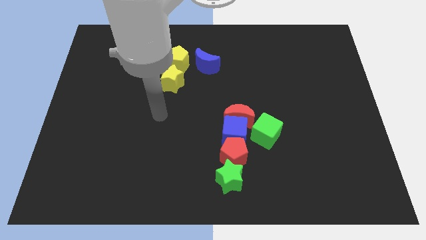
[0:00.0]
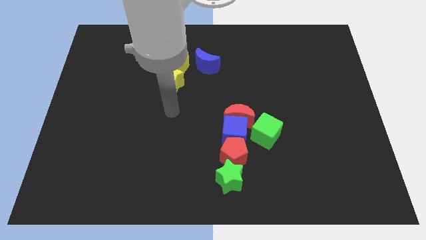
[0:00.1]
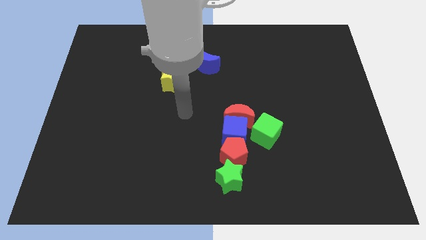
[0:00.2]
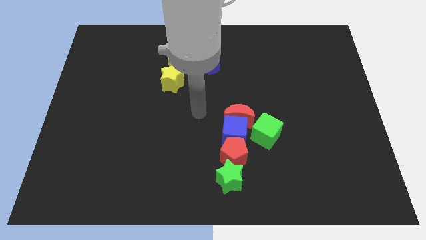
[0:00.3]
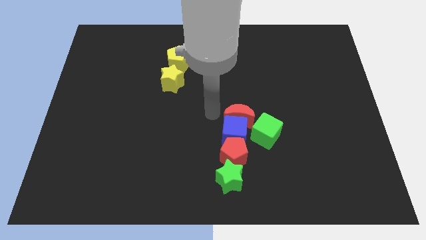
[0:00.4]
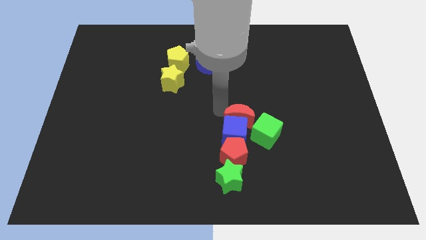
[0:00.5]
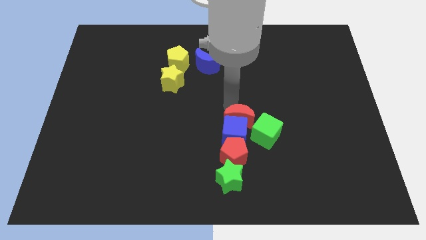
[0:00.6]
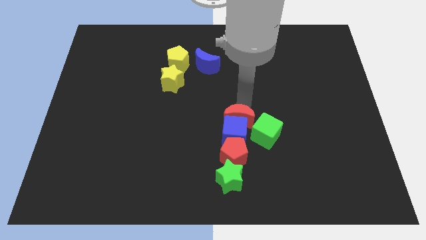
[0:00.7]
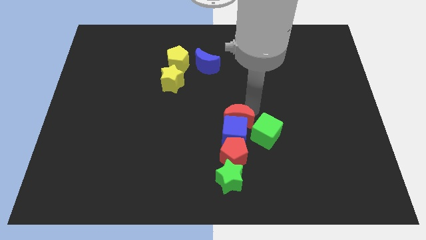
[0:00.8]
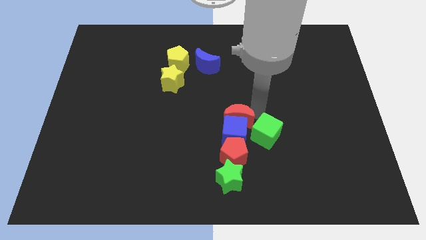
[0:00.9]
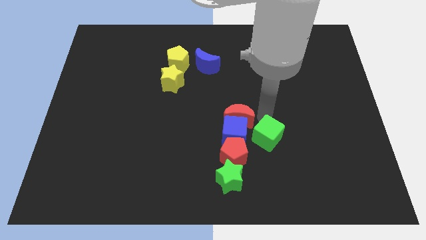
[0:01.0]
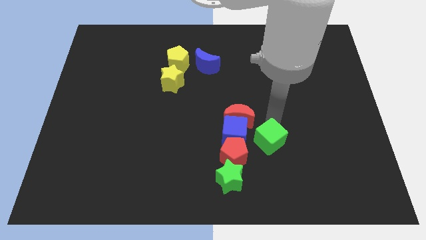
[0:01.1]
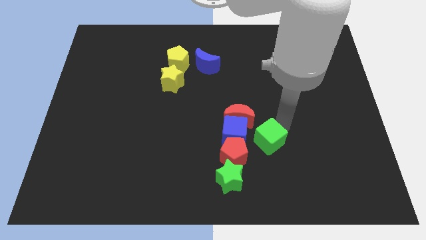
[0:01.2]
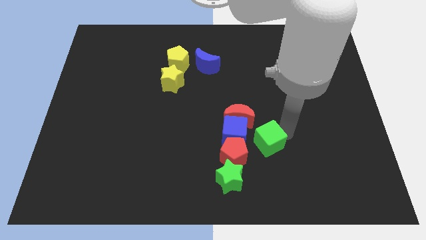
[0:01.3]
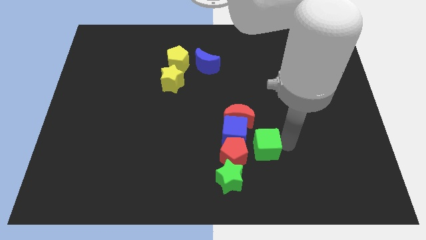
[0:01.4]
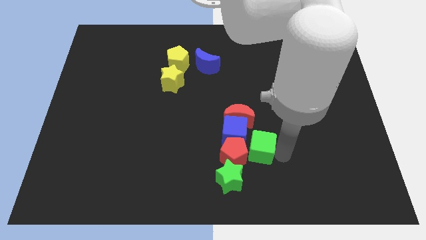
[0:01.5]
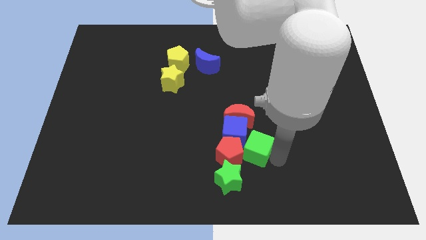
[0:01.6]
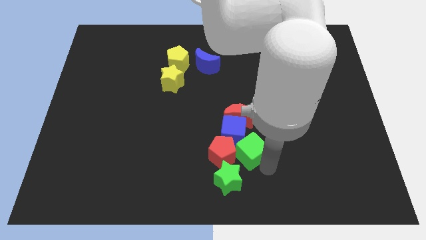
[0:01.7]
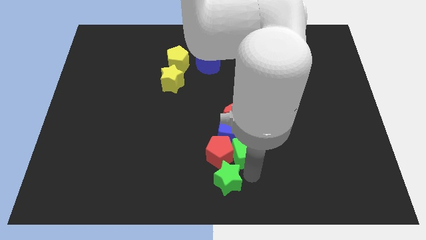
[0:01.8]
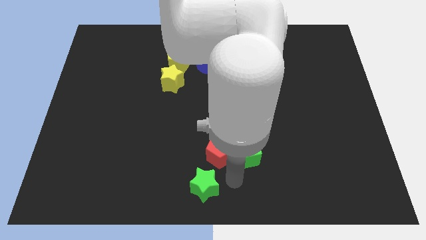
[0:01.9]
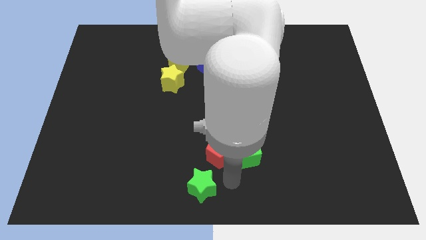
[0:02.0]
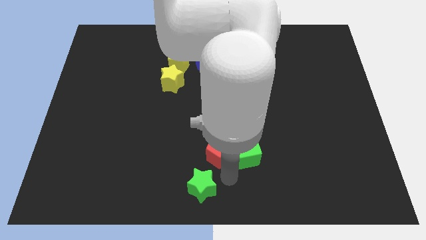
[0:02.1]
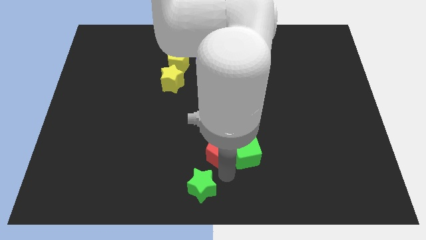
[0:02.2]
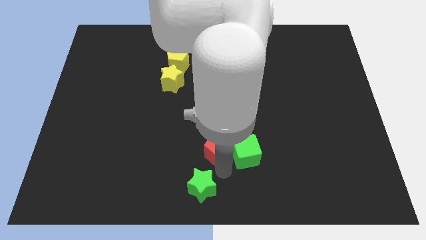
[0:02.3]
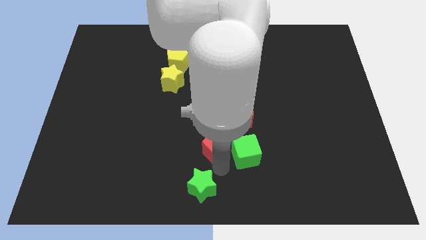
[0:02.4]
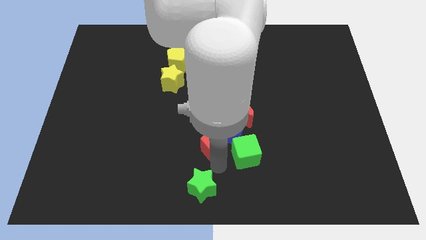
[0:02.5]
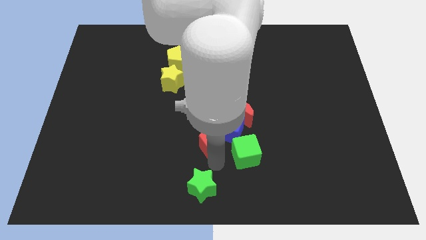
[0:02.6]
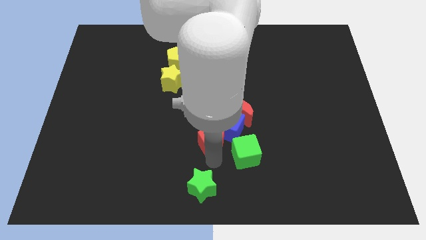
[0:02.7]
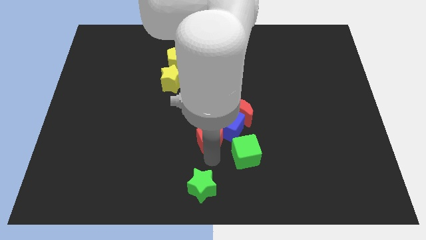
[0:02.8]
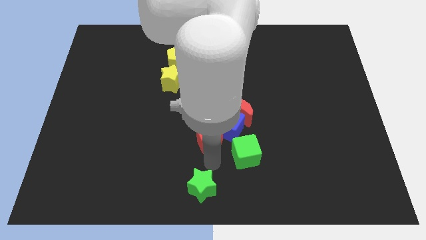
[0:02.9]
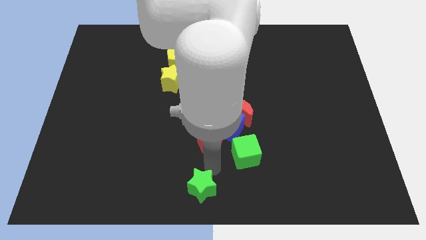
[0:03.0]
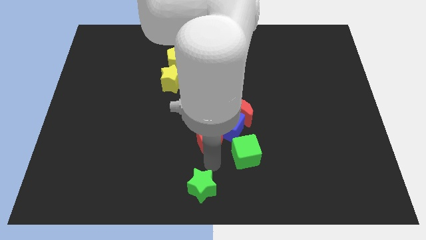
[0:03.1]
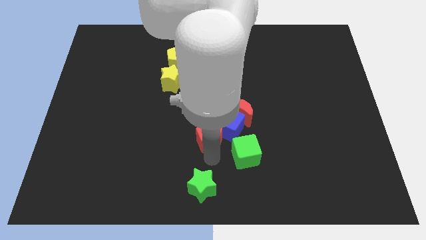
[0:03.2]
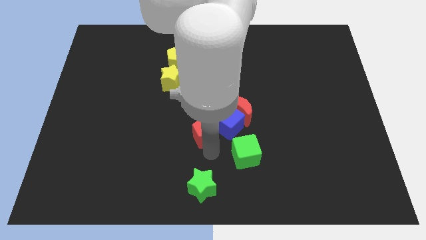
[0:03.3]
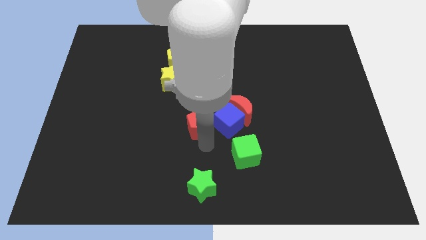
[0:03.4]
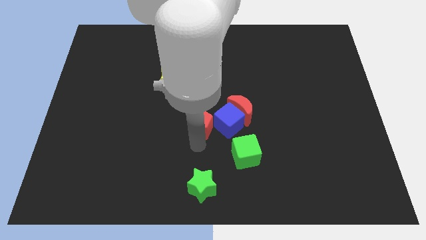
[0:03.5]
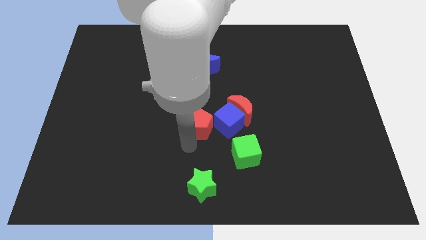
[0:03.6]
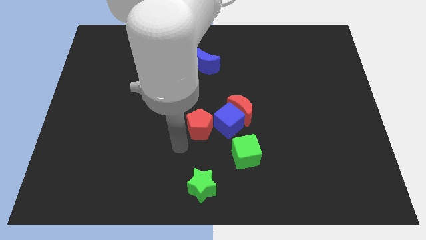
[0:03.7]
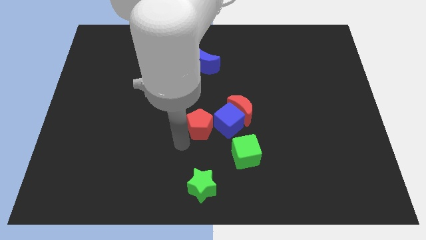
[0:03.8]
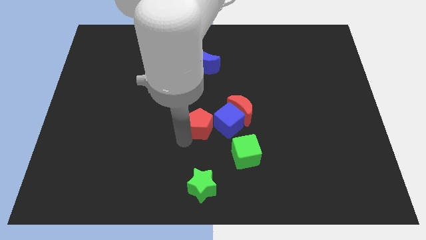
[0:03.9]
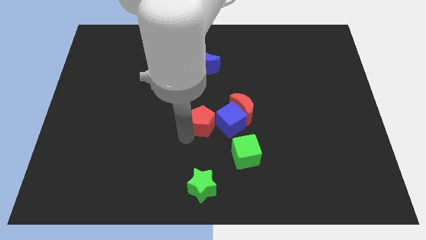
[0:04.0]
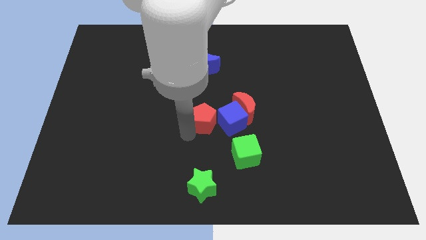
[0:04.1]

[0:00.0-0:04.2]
slide the red pentagon a little bit up

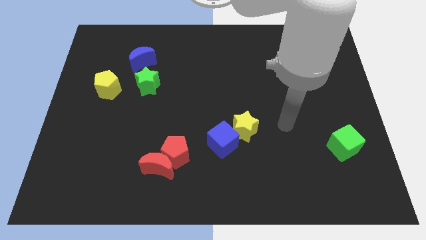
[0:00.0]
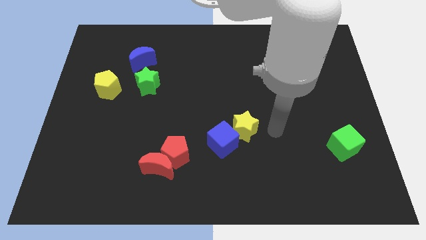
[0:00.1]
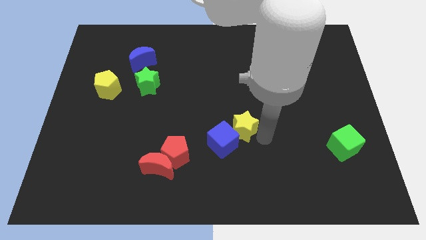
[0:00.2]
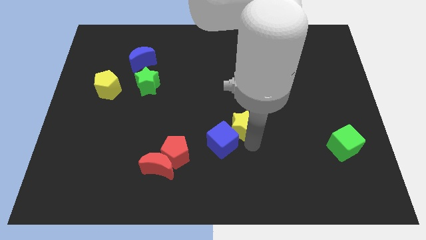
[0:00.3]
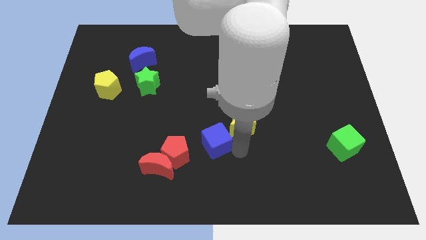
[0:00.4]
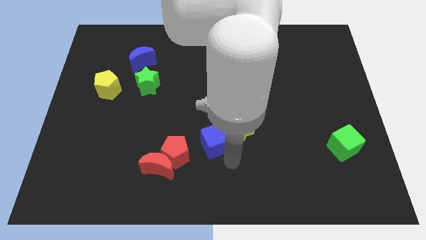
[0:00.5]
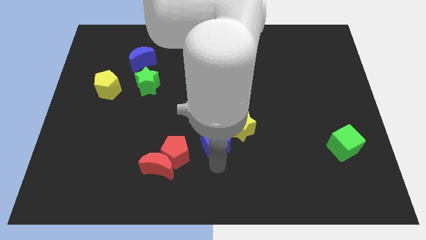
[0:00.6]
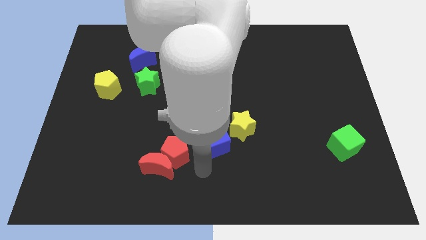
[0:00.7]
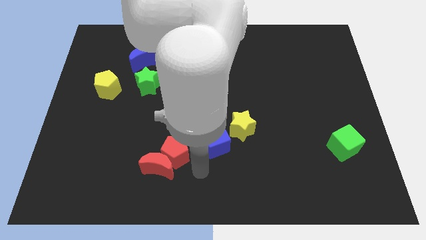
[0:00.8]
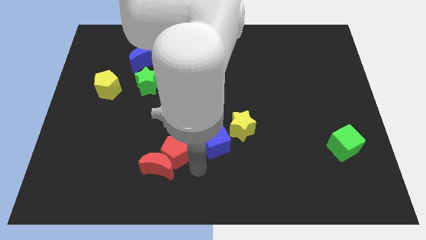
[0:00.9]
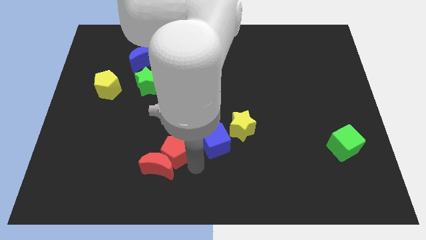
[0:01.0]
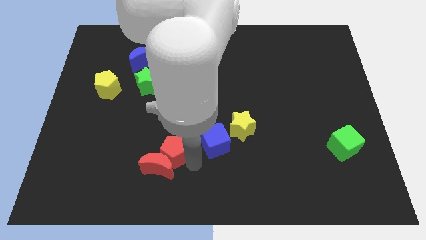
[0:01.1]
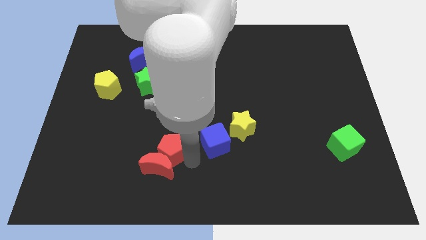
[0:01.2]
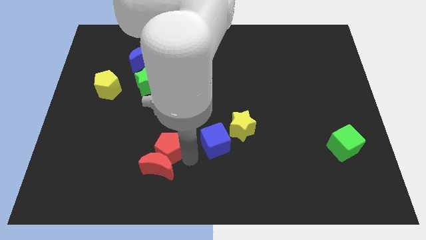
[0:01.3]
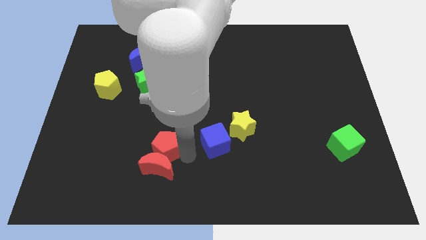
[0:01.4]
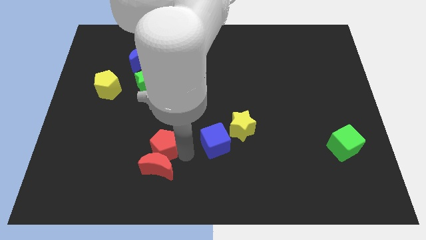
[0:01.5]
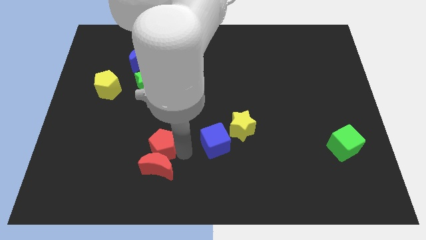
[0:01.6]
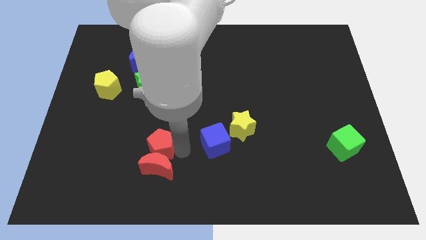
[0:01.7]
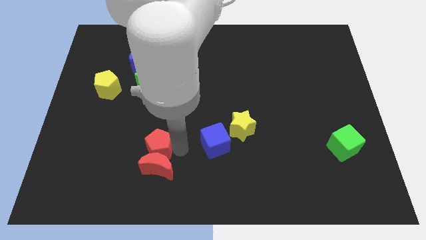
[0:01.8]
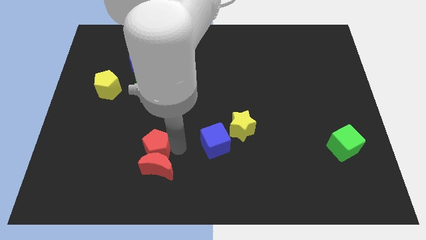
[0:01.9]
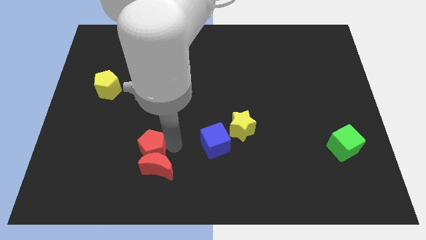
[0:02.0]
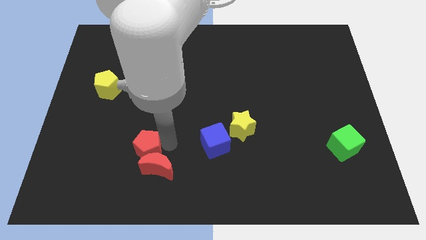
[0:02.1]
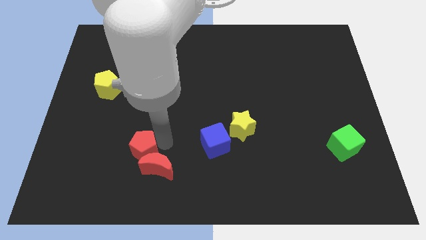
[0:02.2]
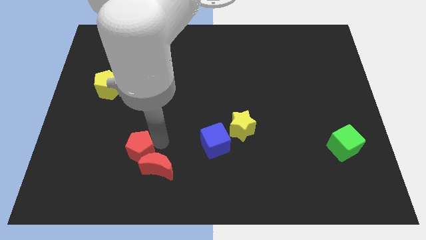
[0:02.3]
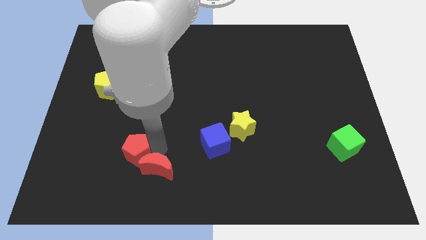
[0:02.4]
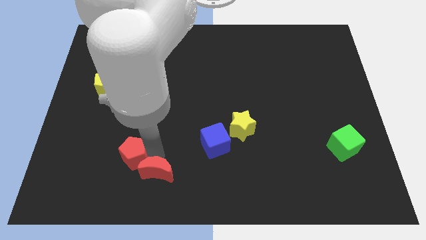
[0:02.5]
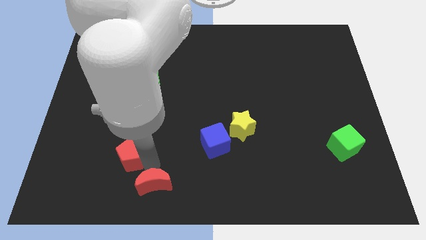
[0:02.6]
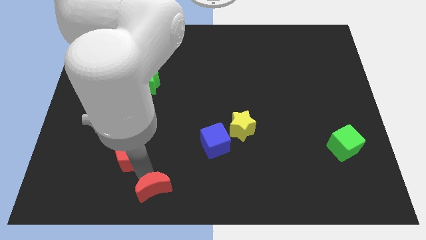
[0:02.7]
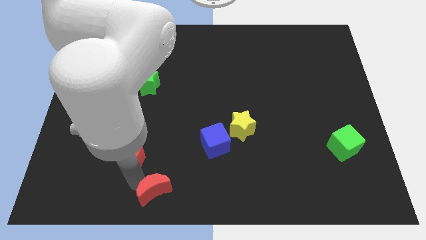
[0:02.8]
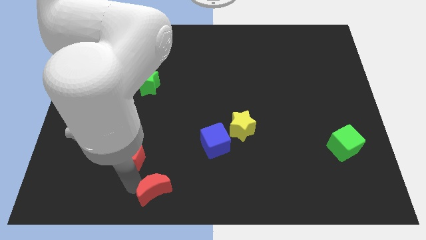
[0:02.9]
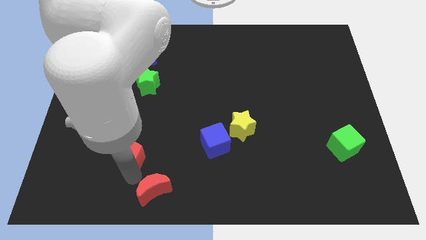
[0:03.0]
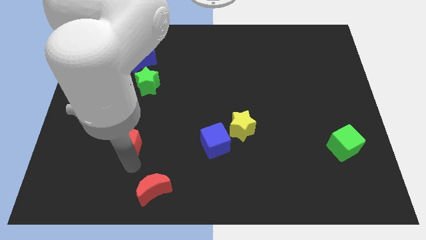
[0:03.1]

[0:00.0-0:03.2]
slide the red pentagon a little bit upwards and left

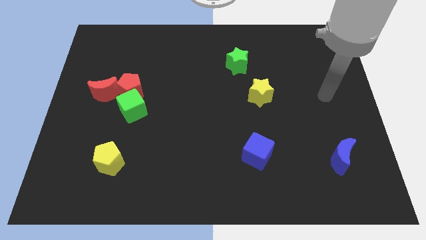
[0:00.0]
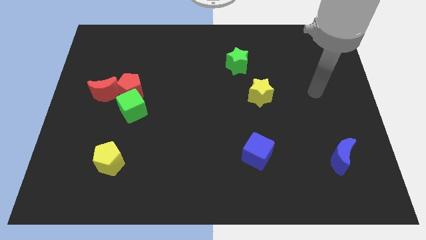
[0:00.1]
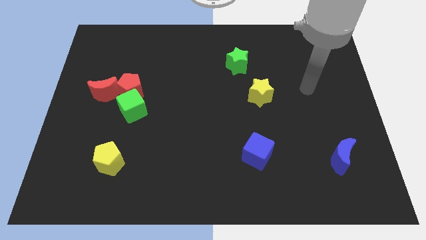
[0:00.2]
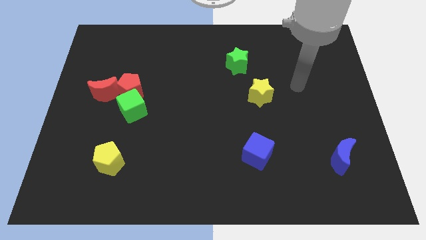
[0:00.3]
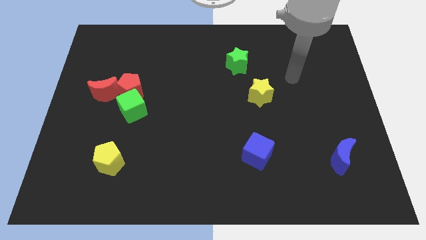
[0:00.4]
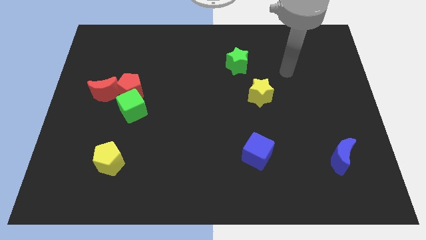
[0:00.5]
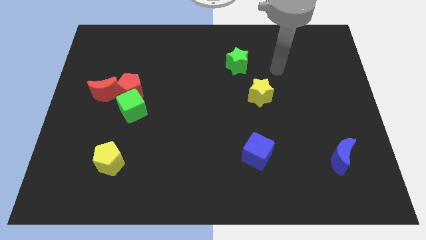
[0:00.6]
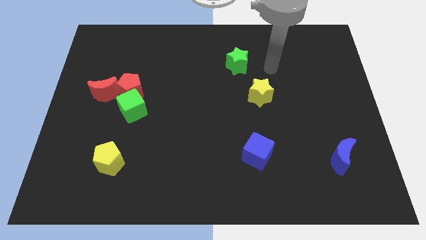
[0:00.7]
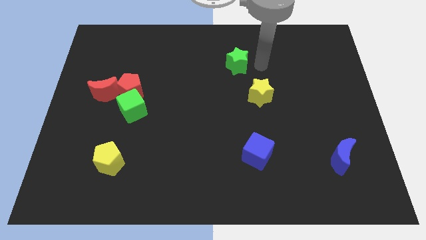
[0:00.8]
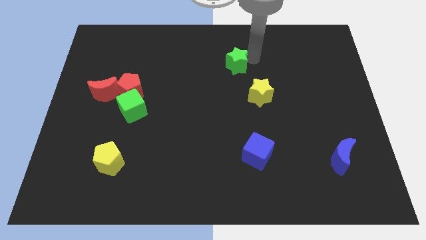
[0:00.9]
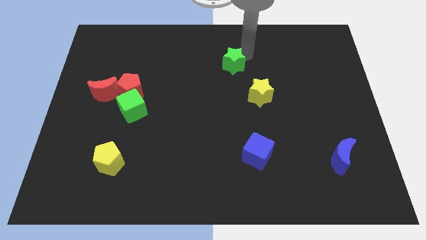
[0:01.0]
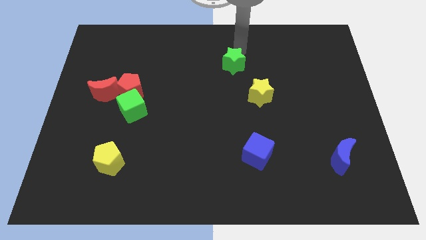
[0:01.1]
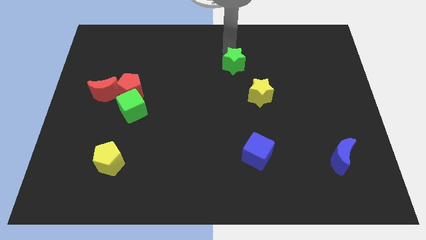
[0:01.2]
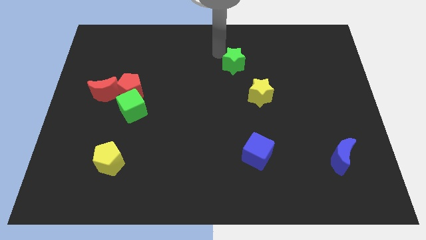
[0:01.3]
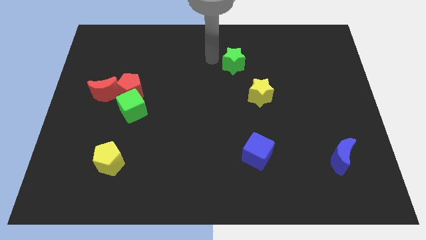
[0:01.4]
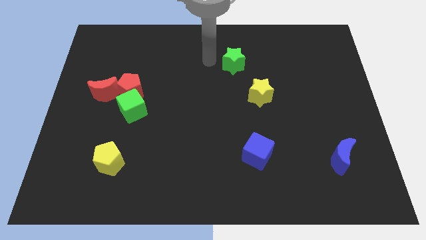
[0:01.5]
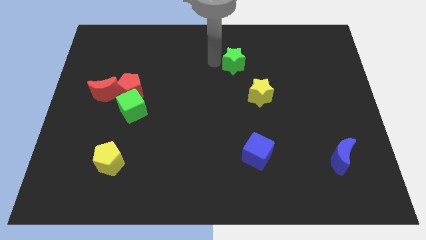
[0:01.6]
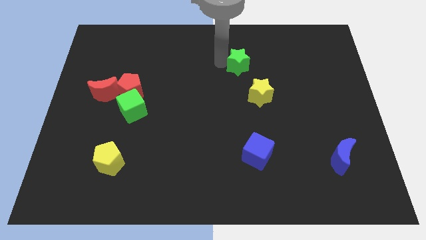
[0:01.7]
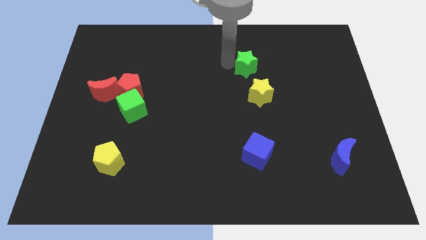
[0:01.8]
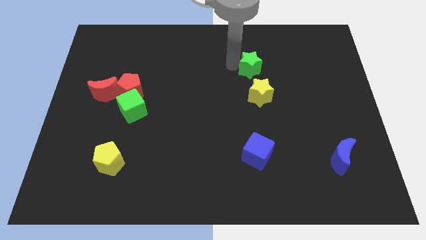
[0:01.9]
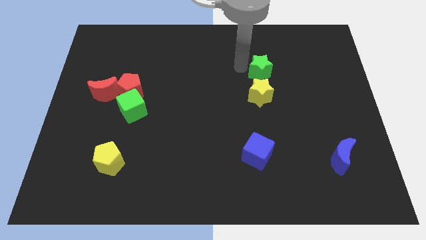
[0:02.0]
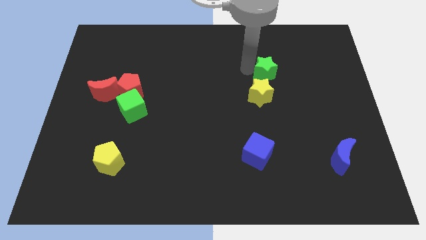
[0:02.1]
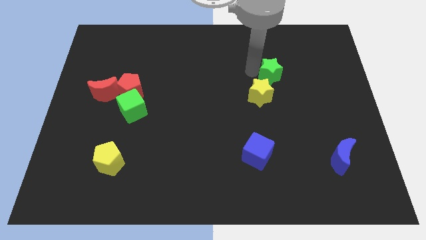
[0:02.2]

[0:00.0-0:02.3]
move the green star somewhat right
